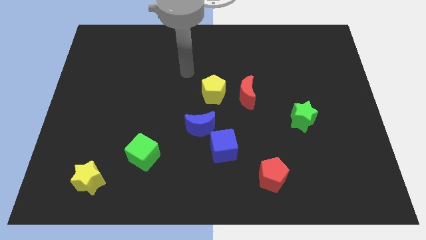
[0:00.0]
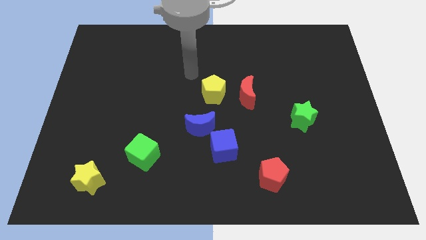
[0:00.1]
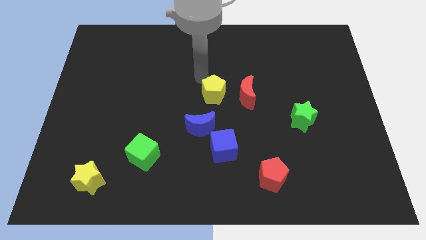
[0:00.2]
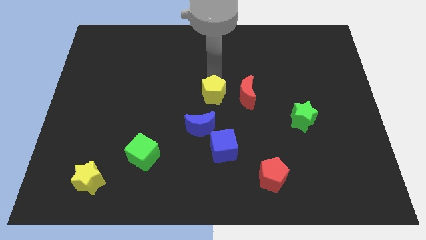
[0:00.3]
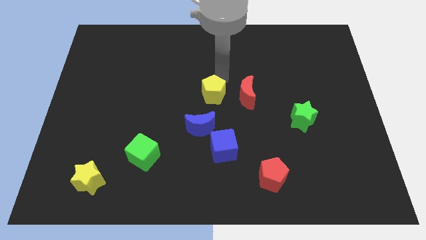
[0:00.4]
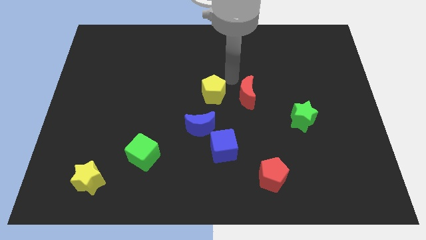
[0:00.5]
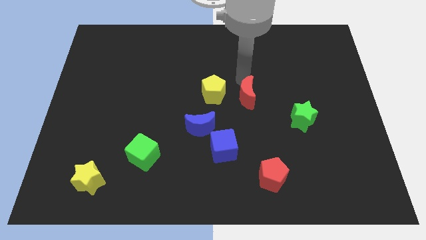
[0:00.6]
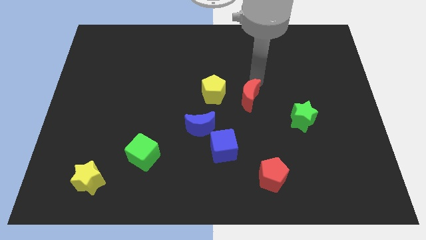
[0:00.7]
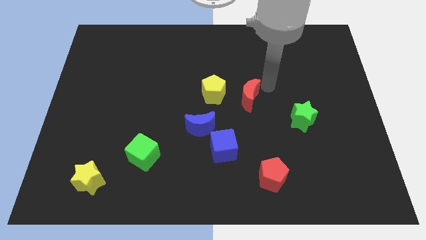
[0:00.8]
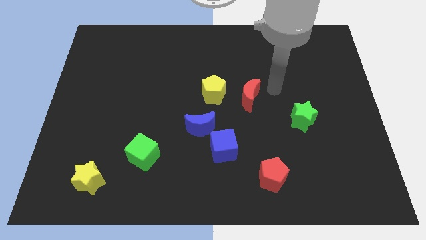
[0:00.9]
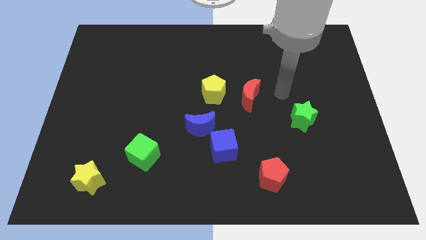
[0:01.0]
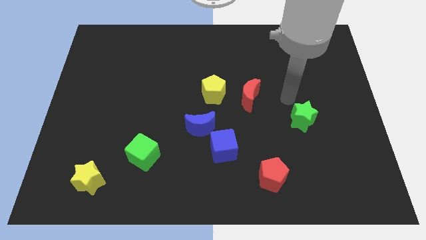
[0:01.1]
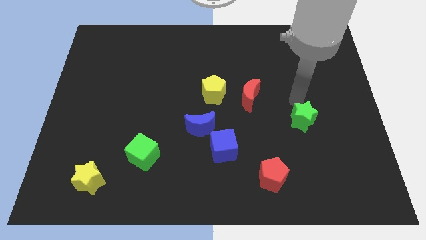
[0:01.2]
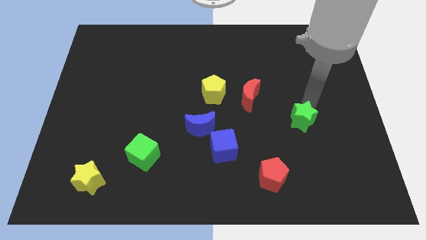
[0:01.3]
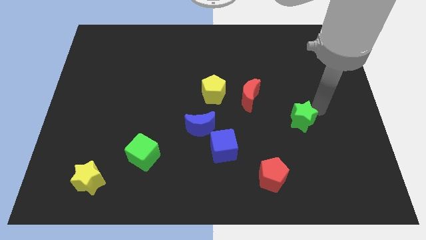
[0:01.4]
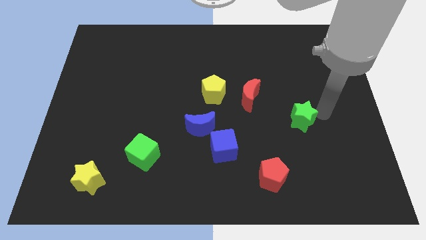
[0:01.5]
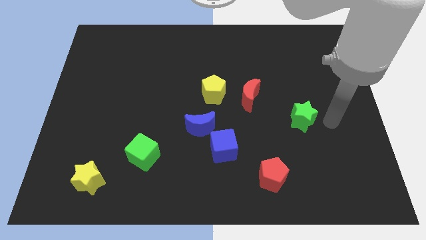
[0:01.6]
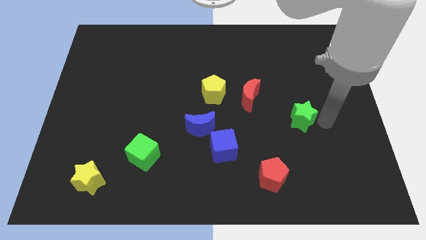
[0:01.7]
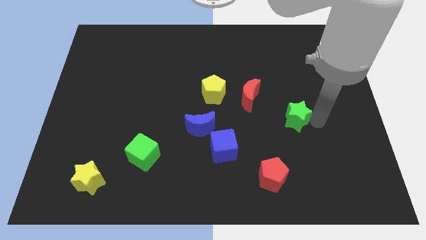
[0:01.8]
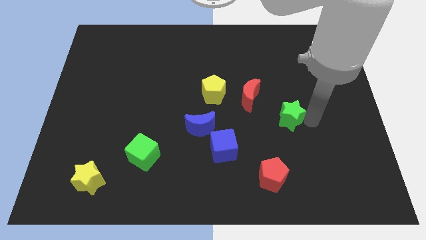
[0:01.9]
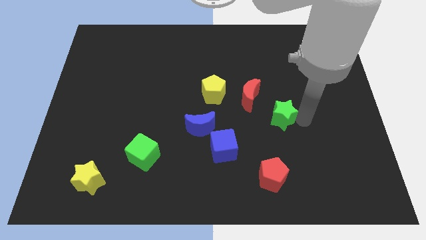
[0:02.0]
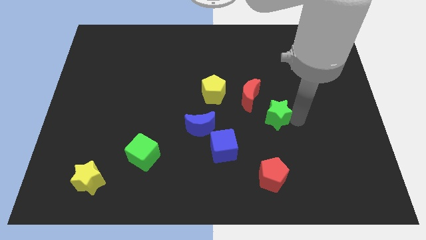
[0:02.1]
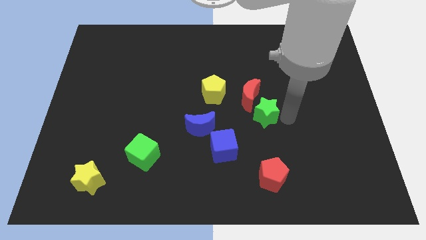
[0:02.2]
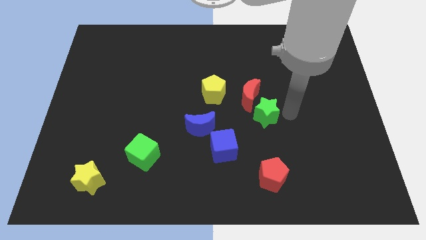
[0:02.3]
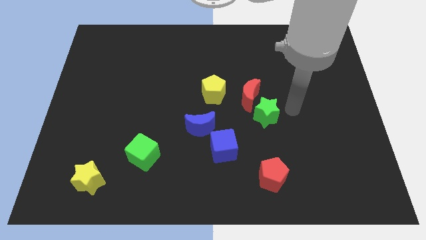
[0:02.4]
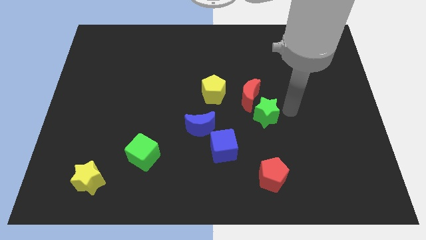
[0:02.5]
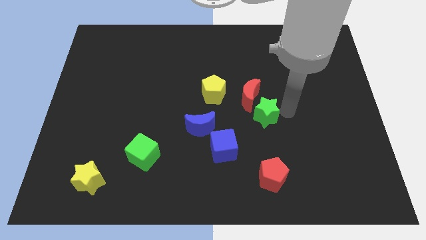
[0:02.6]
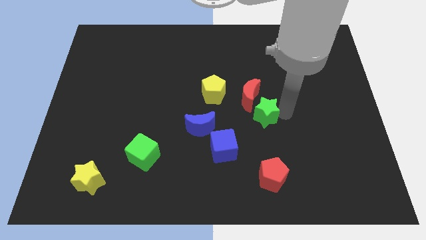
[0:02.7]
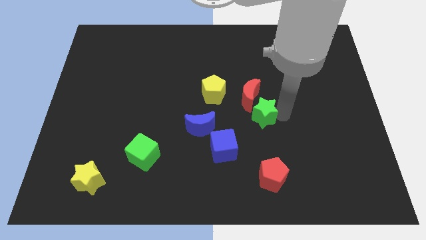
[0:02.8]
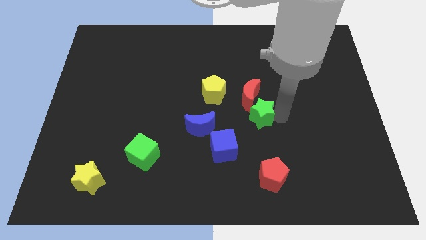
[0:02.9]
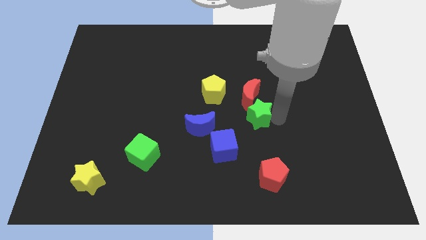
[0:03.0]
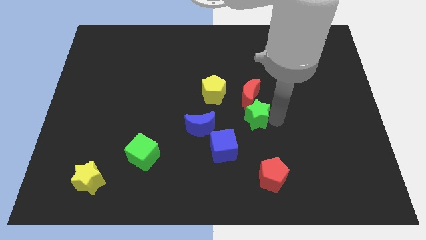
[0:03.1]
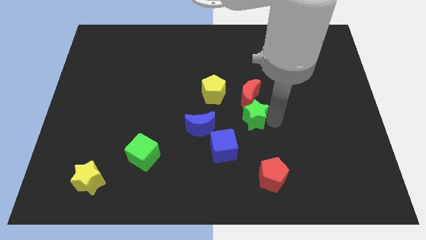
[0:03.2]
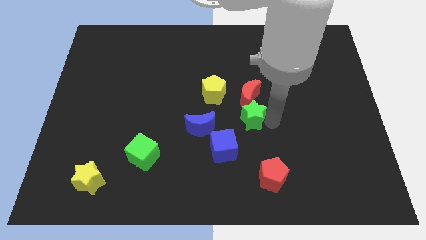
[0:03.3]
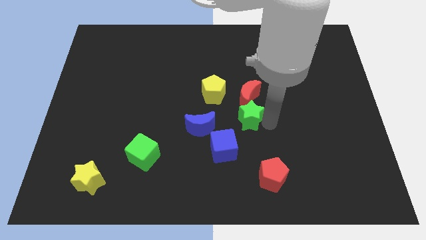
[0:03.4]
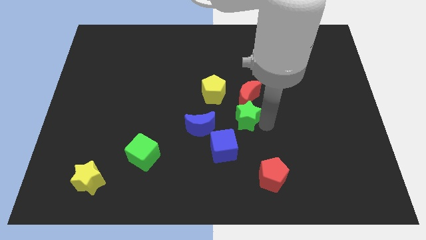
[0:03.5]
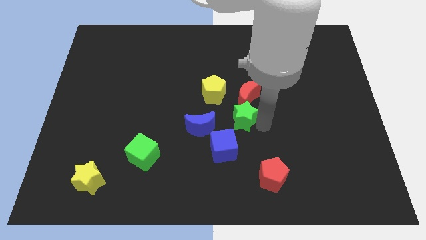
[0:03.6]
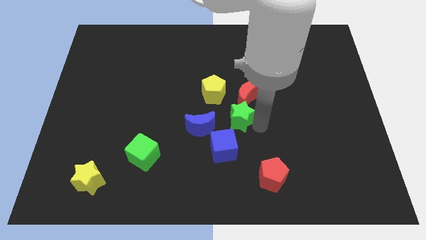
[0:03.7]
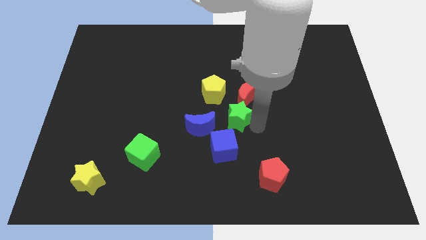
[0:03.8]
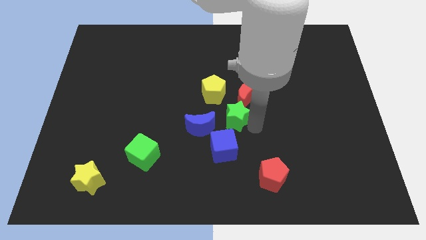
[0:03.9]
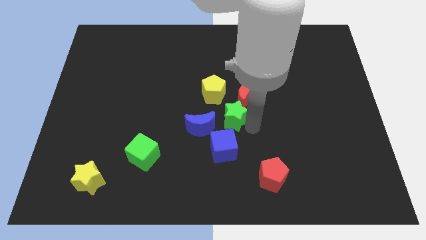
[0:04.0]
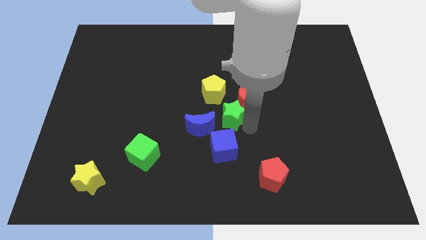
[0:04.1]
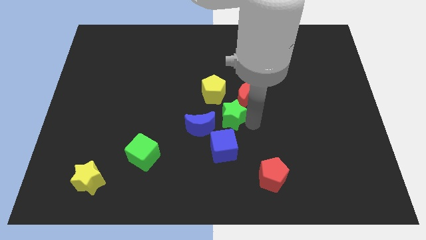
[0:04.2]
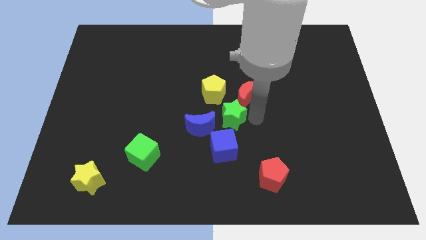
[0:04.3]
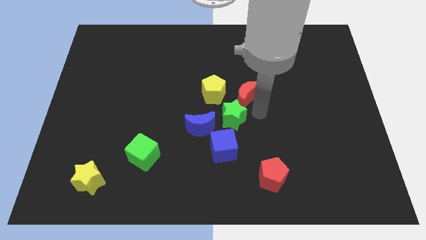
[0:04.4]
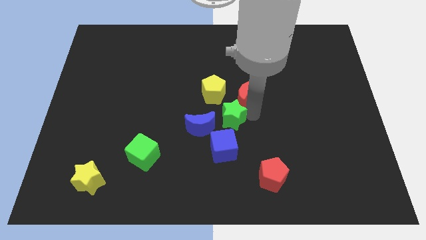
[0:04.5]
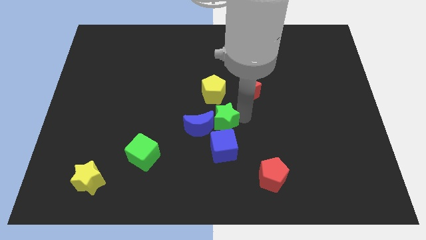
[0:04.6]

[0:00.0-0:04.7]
slide the green star next to the blue moon

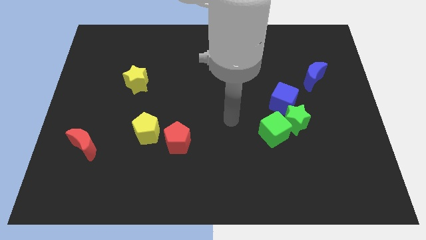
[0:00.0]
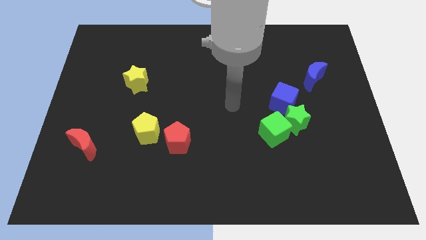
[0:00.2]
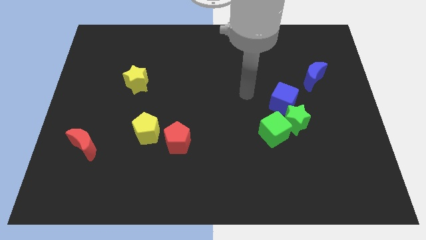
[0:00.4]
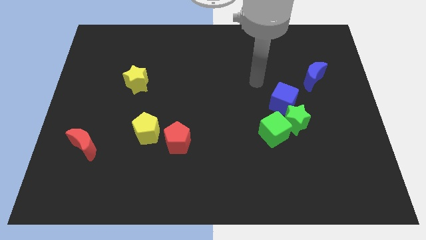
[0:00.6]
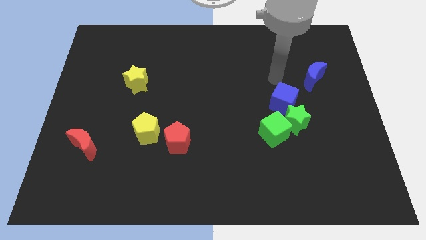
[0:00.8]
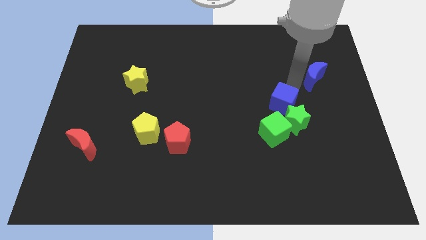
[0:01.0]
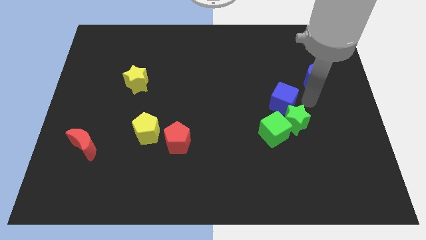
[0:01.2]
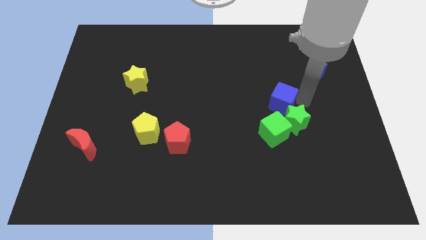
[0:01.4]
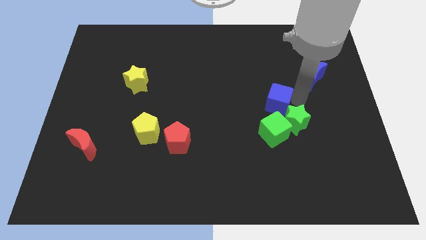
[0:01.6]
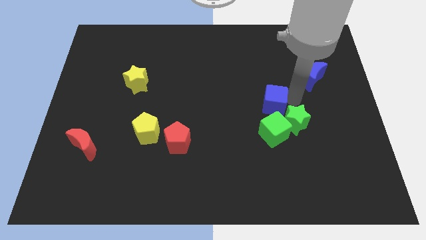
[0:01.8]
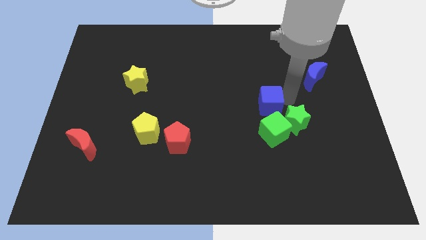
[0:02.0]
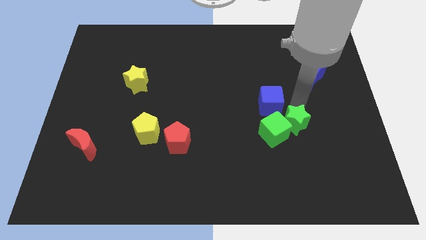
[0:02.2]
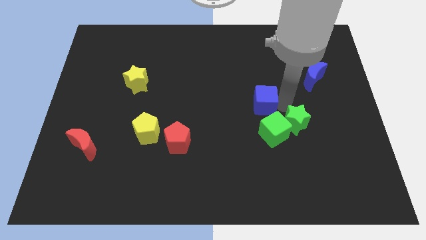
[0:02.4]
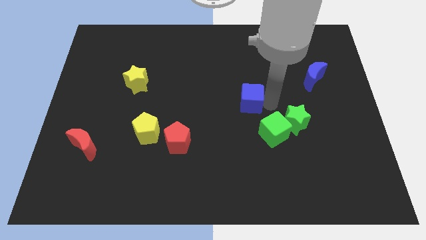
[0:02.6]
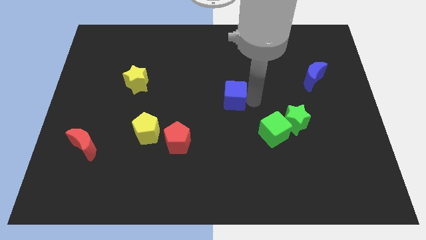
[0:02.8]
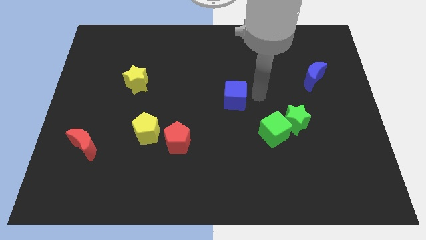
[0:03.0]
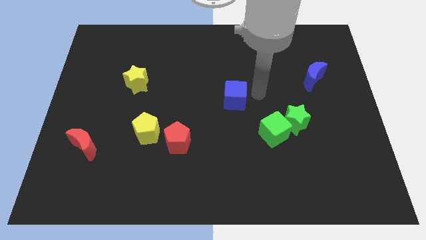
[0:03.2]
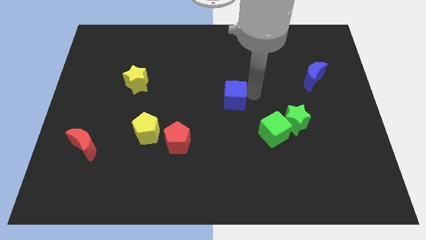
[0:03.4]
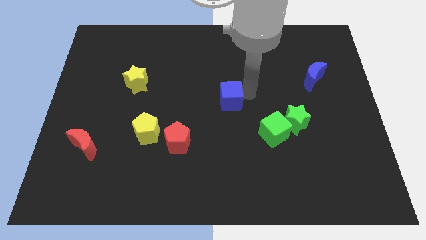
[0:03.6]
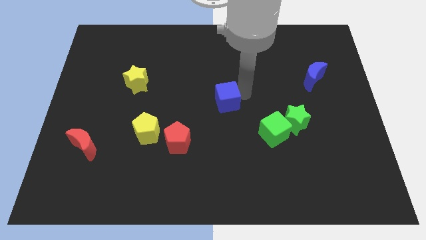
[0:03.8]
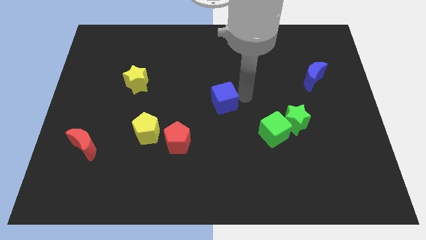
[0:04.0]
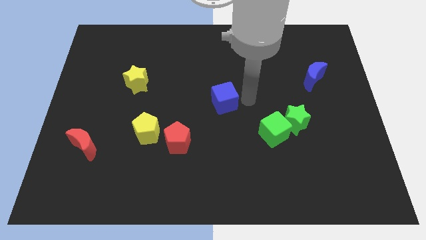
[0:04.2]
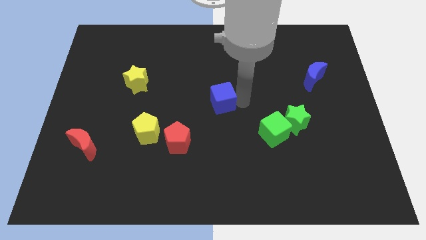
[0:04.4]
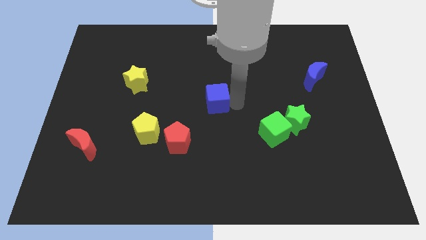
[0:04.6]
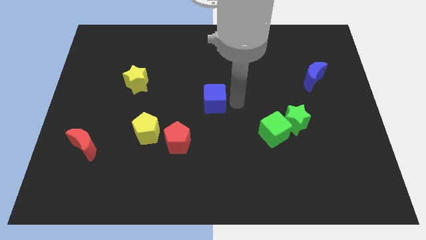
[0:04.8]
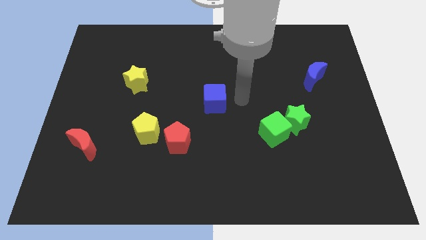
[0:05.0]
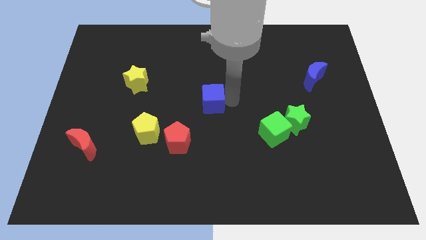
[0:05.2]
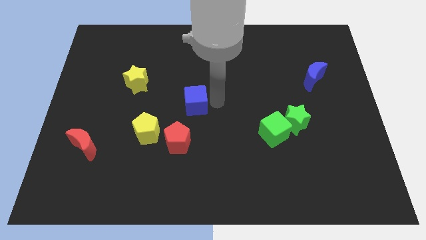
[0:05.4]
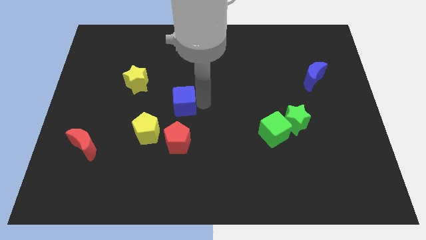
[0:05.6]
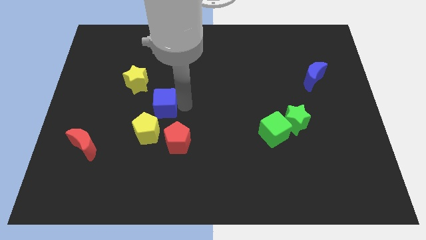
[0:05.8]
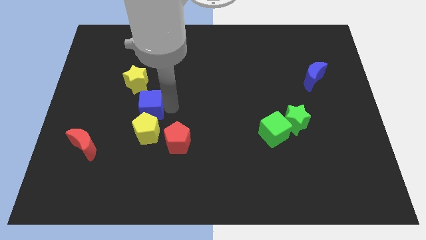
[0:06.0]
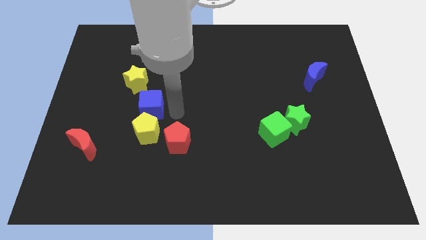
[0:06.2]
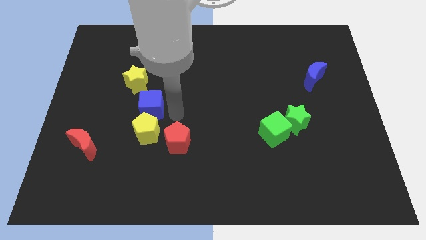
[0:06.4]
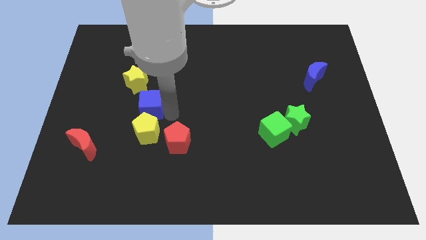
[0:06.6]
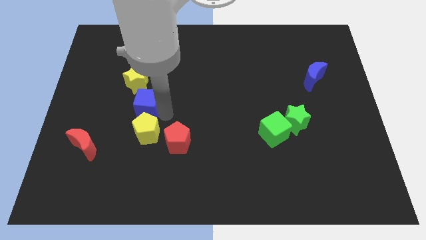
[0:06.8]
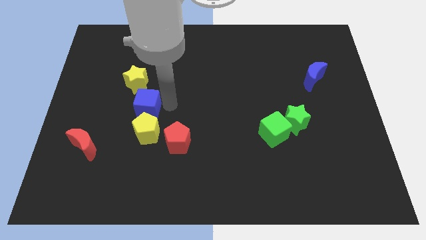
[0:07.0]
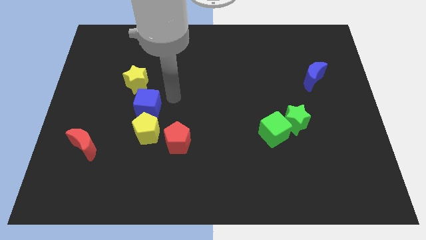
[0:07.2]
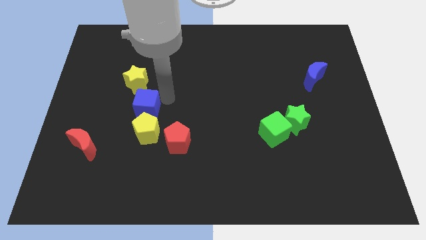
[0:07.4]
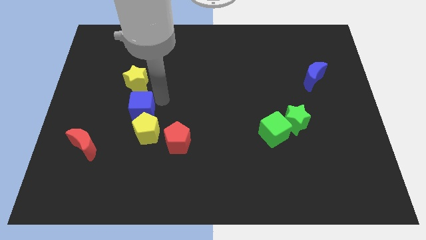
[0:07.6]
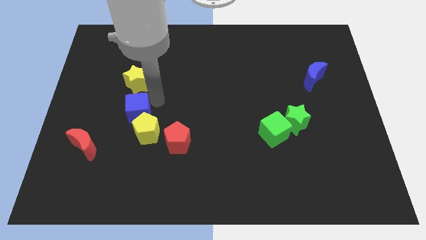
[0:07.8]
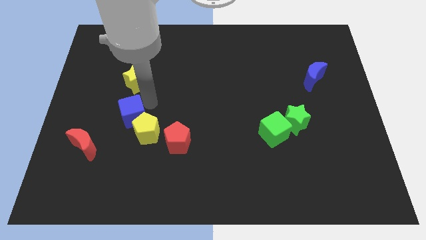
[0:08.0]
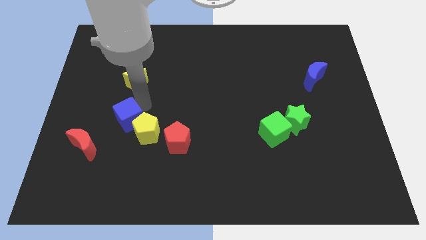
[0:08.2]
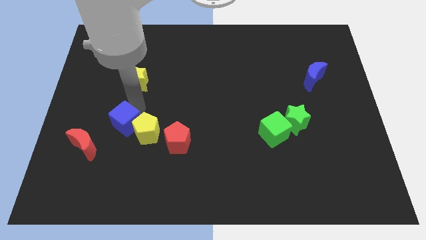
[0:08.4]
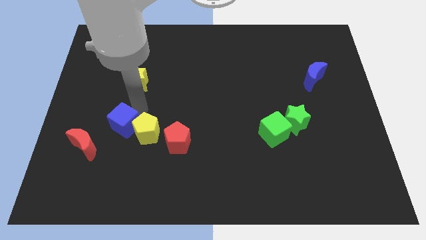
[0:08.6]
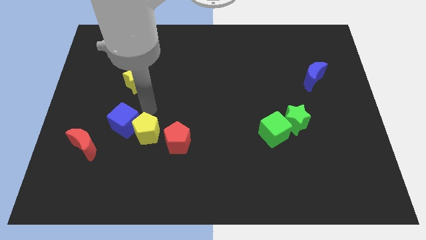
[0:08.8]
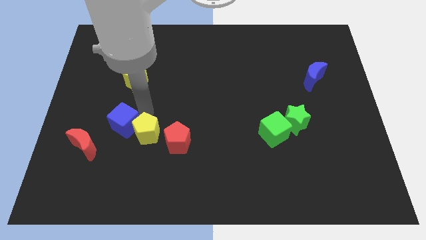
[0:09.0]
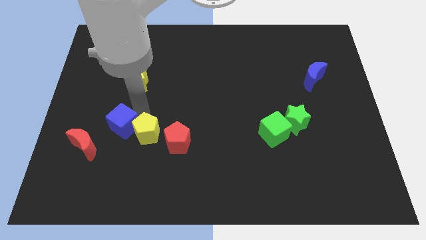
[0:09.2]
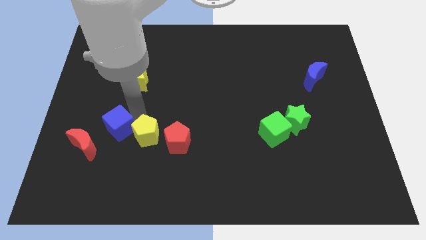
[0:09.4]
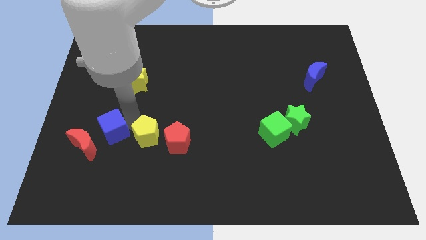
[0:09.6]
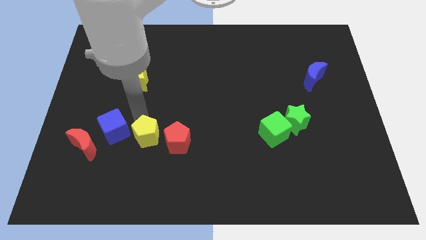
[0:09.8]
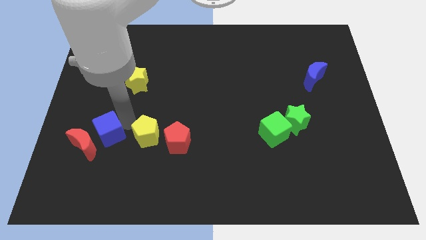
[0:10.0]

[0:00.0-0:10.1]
move the blue cube to the red moon
